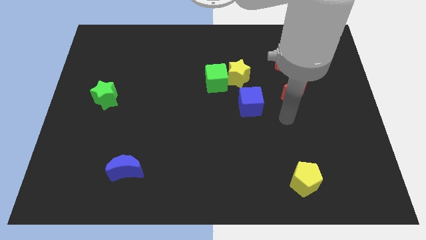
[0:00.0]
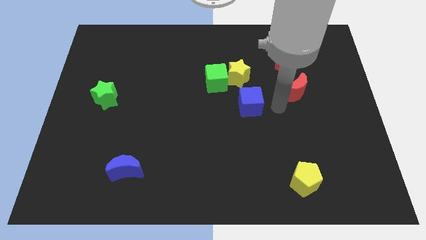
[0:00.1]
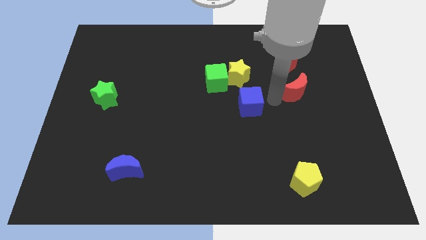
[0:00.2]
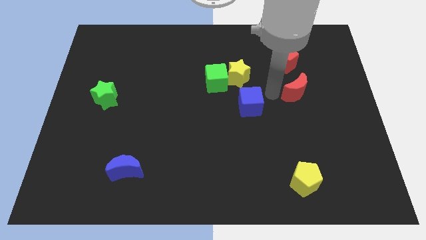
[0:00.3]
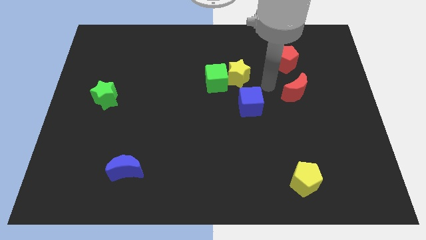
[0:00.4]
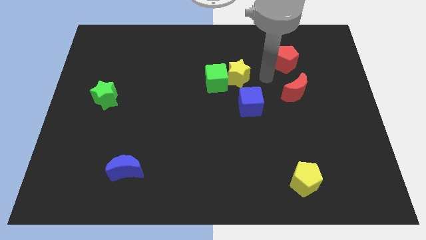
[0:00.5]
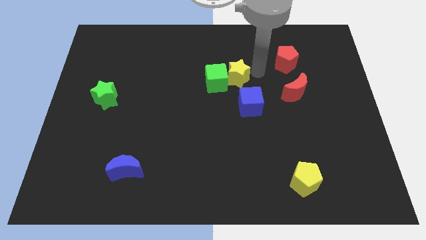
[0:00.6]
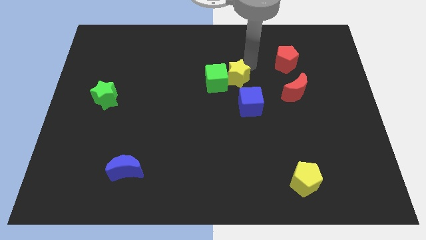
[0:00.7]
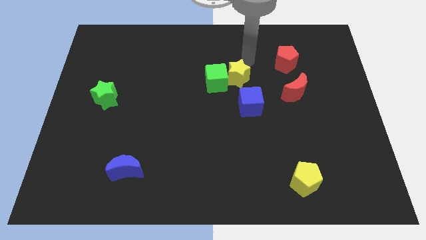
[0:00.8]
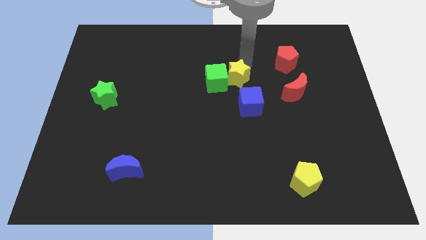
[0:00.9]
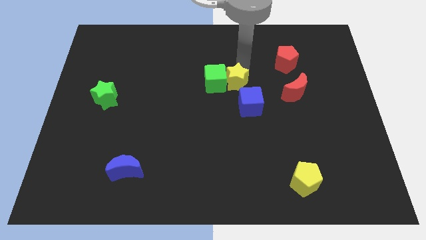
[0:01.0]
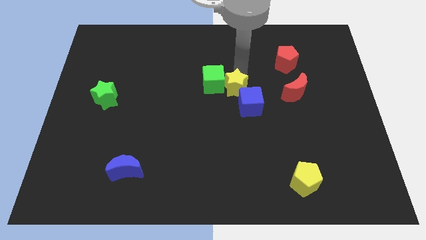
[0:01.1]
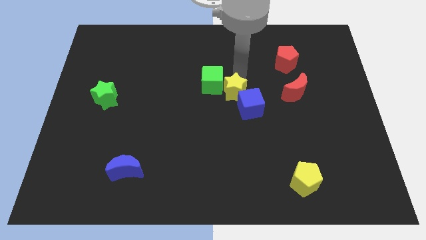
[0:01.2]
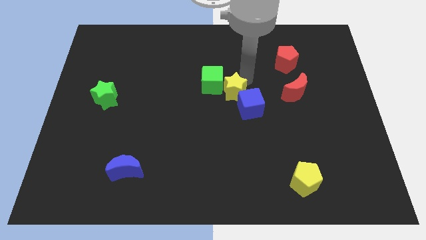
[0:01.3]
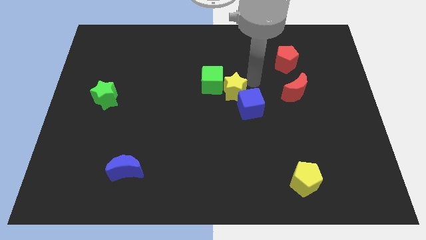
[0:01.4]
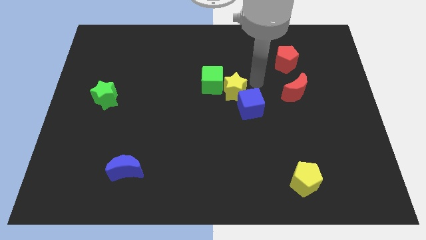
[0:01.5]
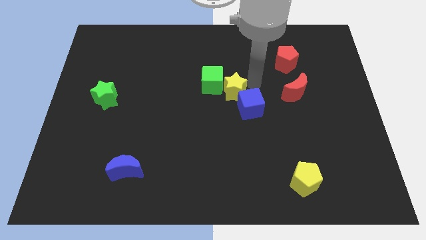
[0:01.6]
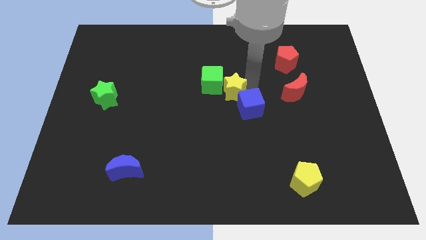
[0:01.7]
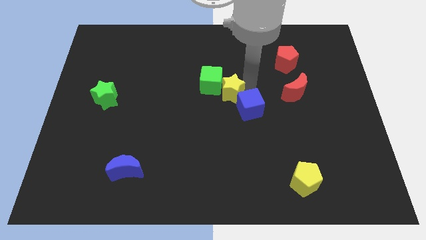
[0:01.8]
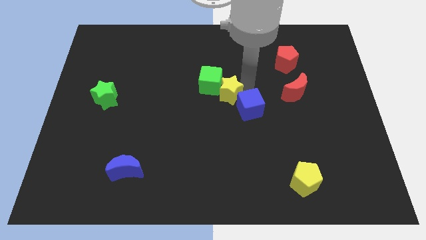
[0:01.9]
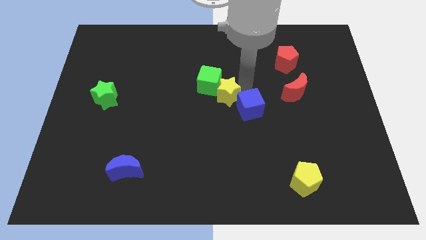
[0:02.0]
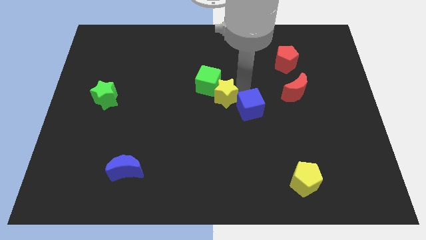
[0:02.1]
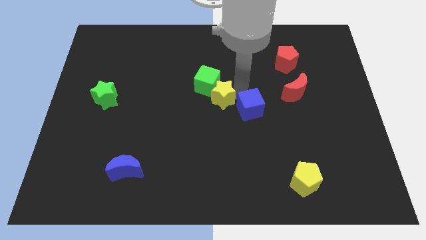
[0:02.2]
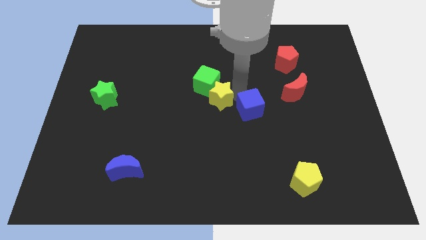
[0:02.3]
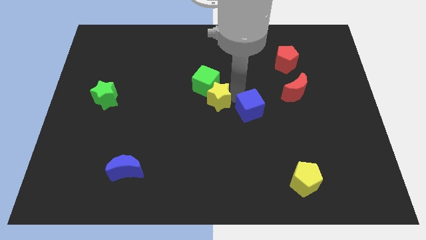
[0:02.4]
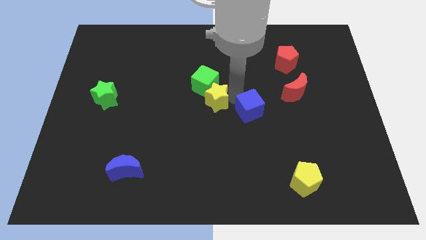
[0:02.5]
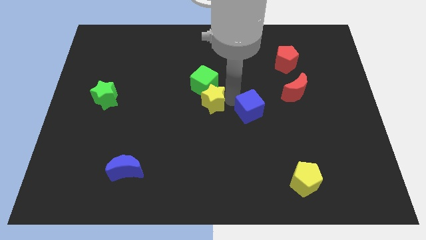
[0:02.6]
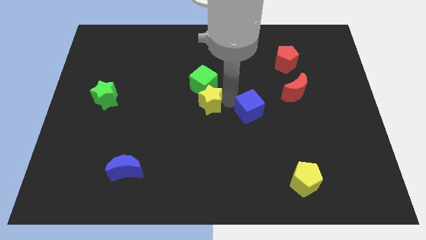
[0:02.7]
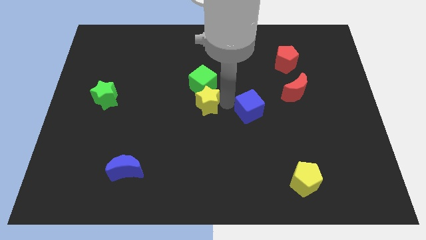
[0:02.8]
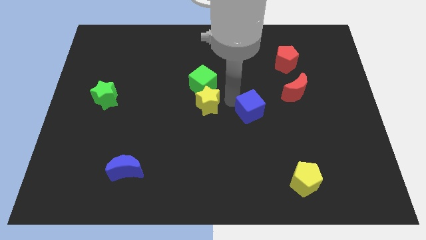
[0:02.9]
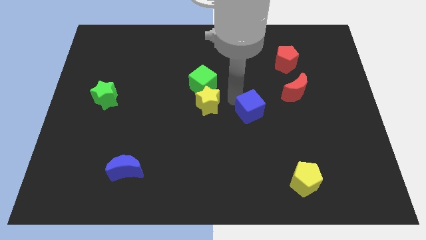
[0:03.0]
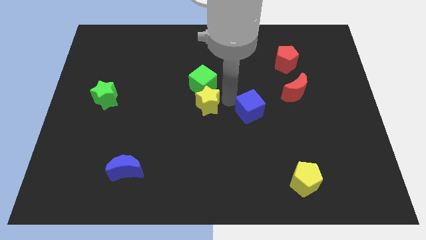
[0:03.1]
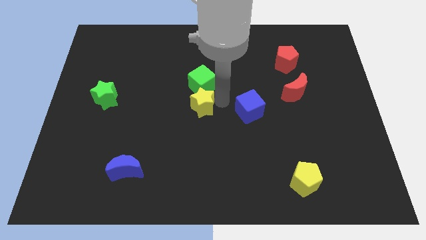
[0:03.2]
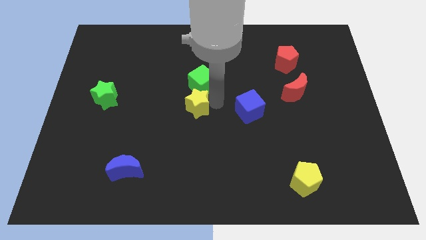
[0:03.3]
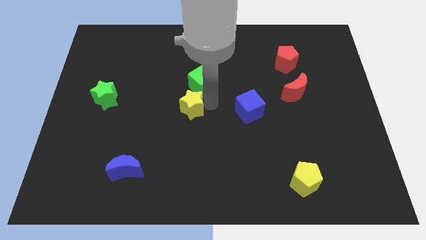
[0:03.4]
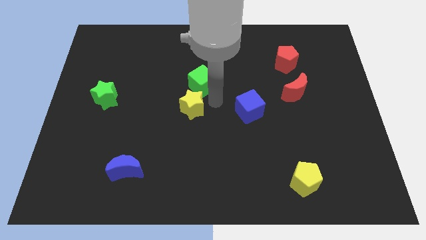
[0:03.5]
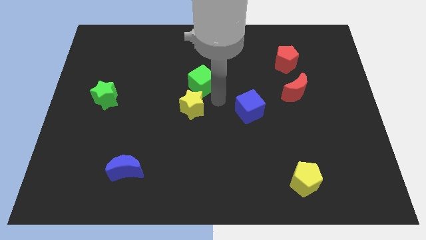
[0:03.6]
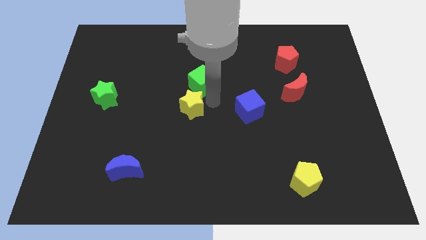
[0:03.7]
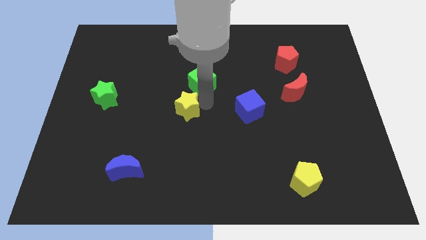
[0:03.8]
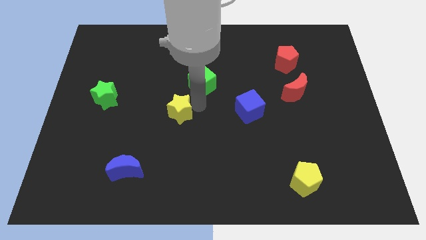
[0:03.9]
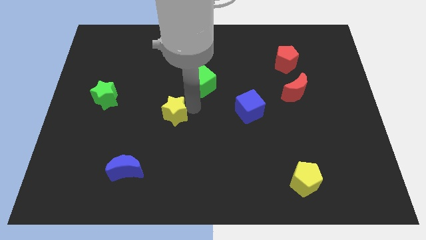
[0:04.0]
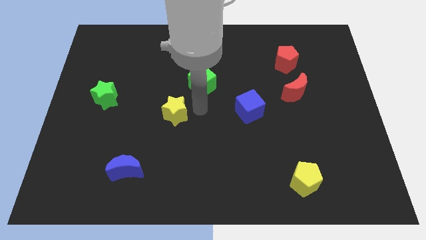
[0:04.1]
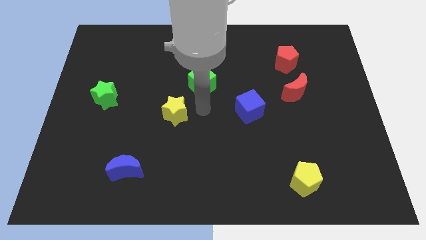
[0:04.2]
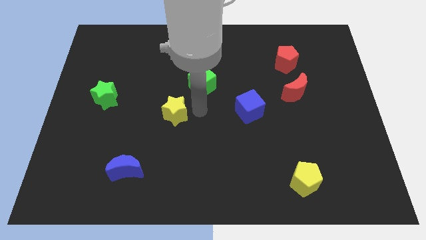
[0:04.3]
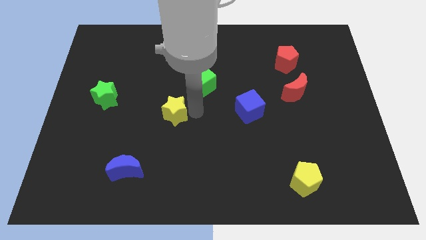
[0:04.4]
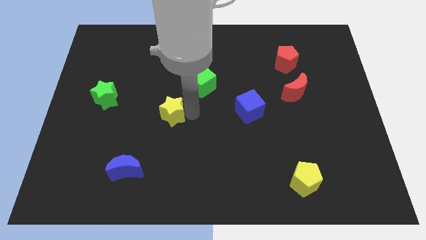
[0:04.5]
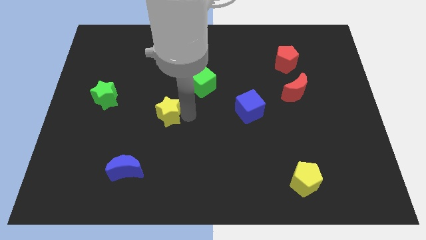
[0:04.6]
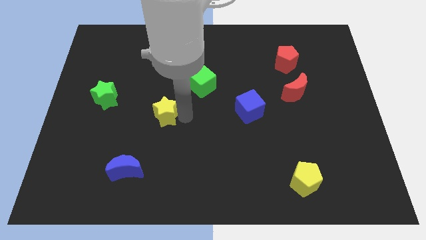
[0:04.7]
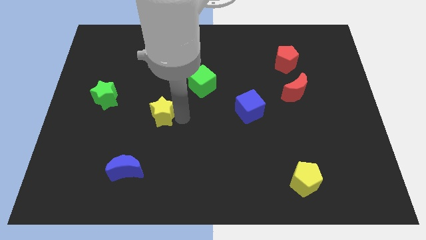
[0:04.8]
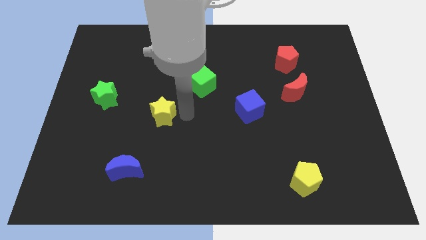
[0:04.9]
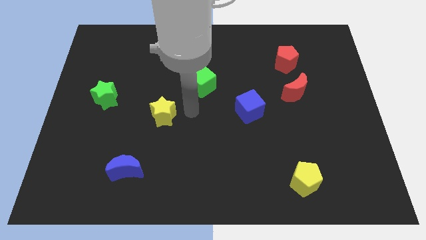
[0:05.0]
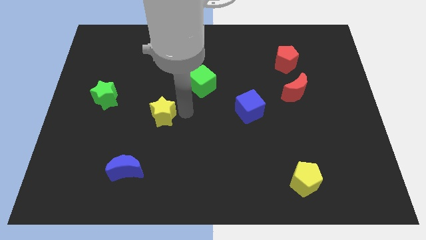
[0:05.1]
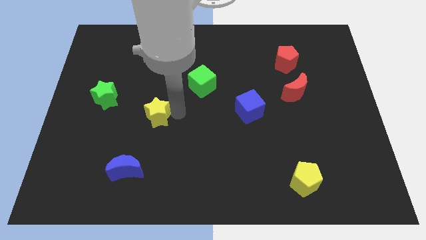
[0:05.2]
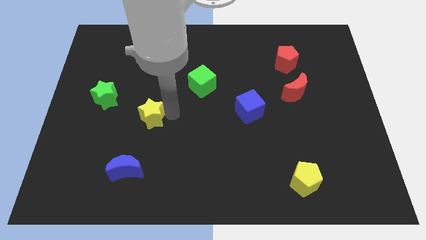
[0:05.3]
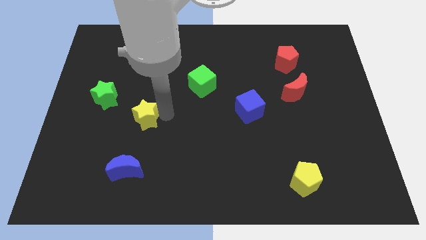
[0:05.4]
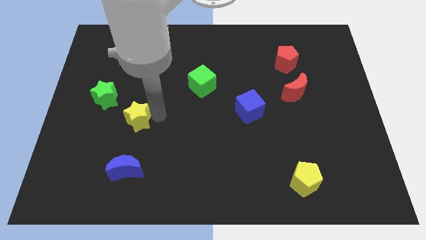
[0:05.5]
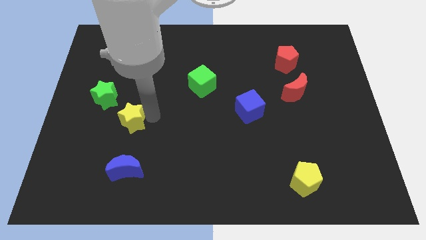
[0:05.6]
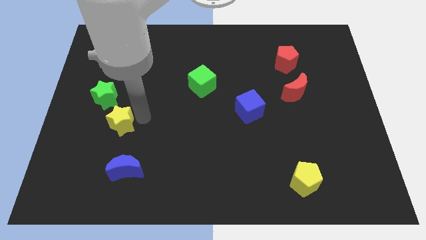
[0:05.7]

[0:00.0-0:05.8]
push the yellow star to the bottom of the green star

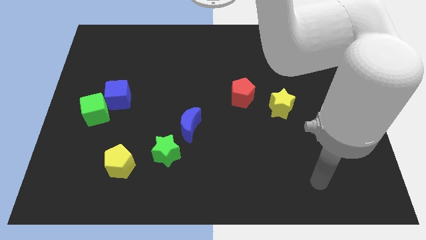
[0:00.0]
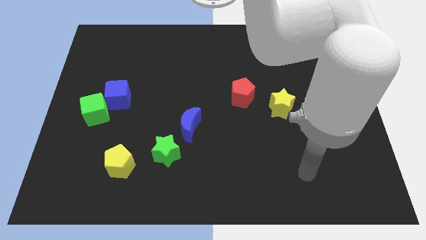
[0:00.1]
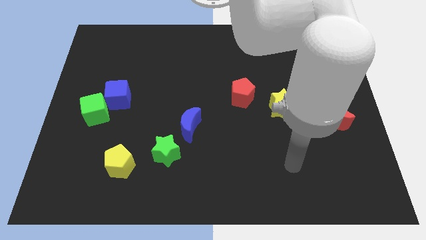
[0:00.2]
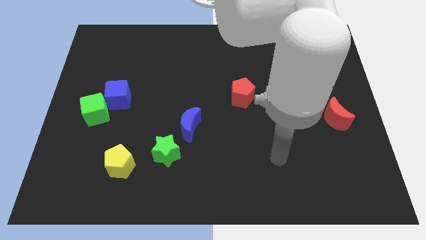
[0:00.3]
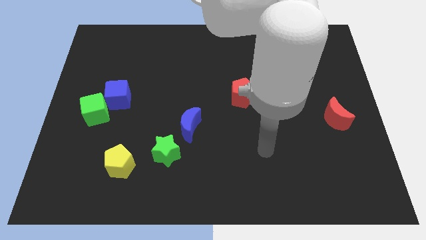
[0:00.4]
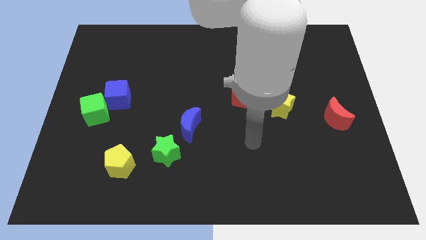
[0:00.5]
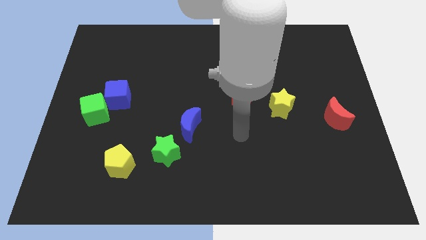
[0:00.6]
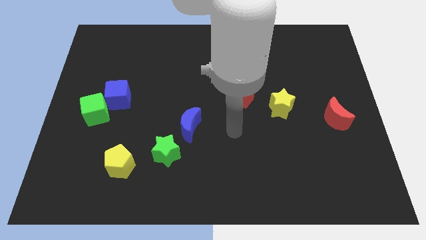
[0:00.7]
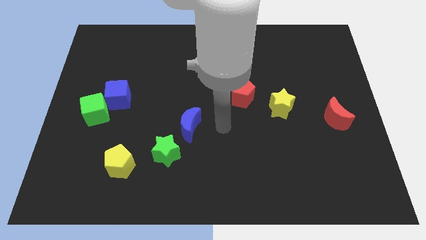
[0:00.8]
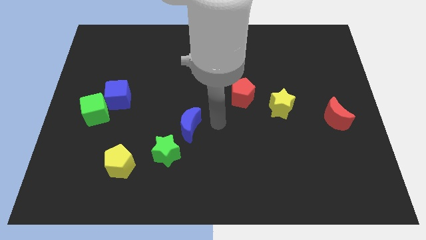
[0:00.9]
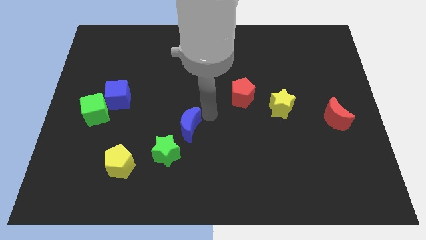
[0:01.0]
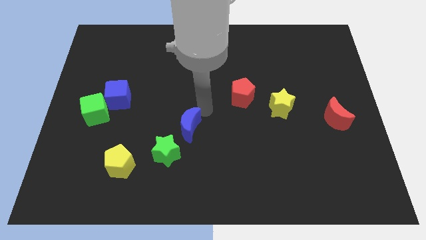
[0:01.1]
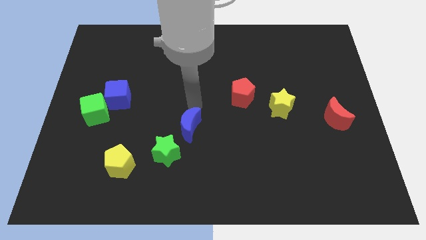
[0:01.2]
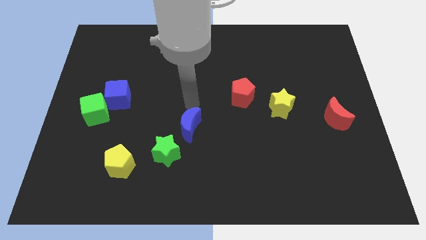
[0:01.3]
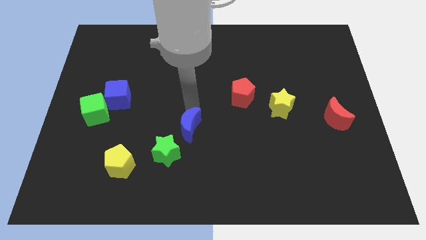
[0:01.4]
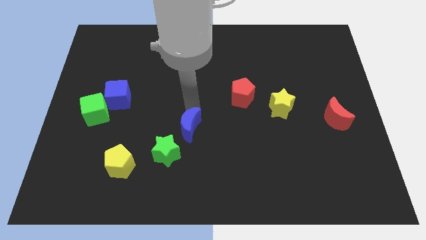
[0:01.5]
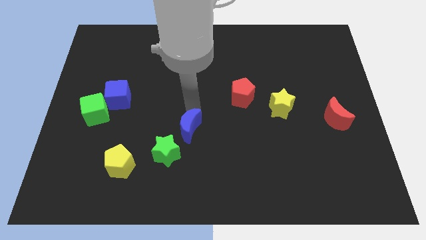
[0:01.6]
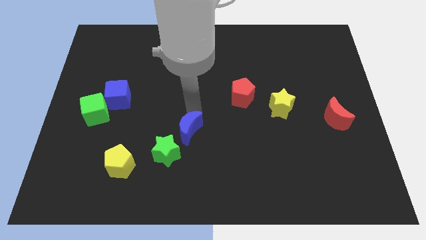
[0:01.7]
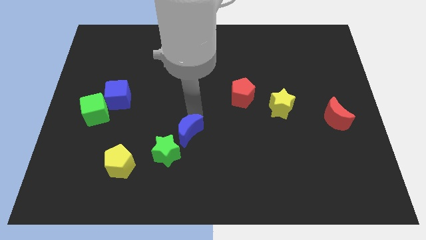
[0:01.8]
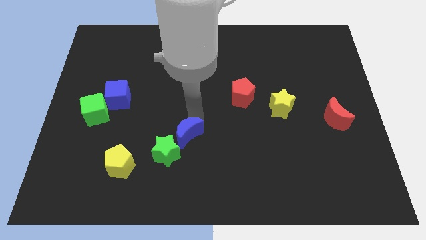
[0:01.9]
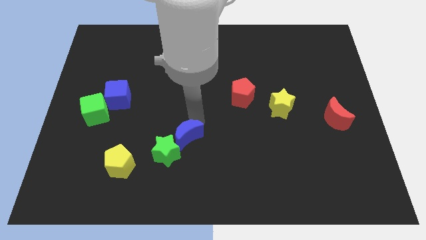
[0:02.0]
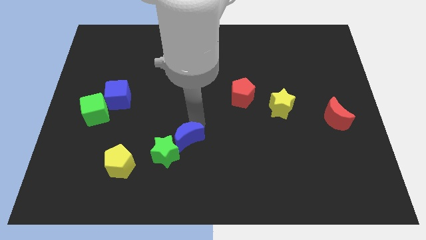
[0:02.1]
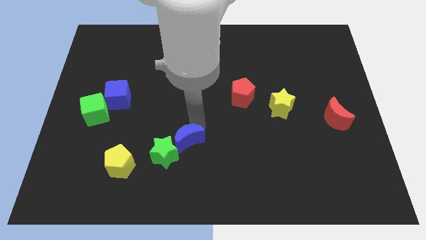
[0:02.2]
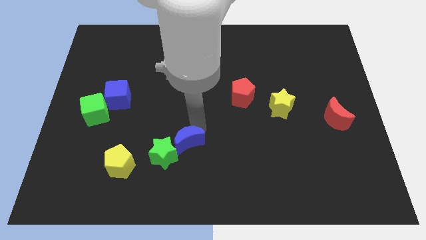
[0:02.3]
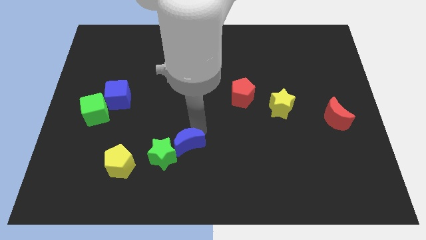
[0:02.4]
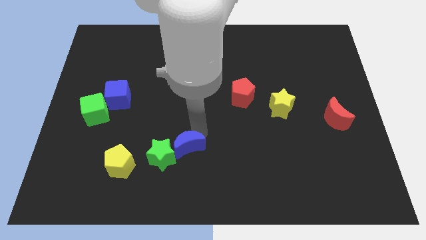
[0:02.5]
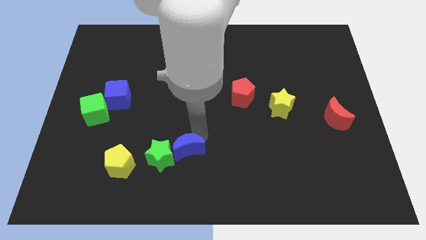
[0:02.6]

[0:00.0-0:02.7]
slide the blue moon right of the yellow pentagon
